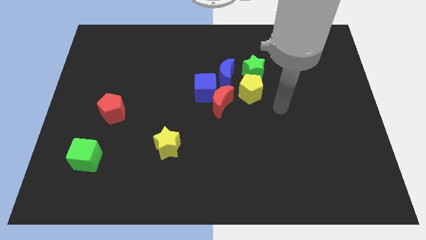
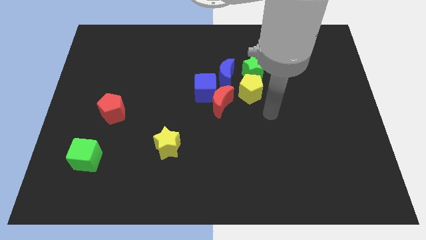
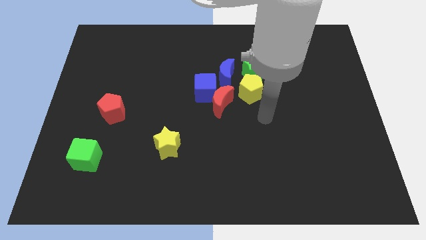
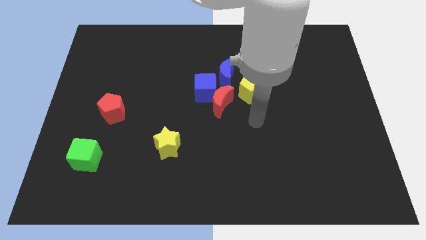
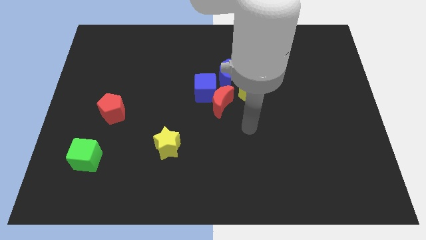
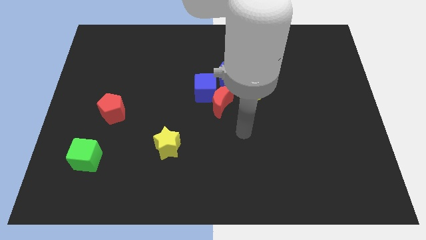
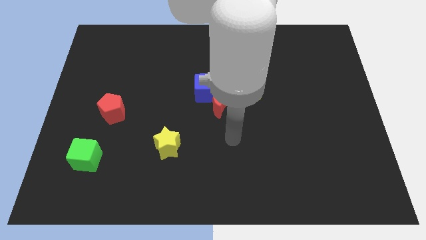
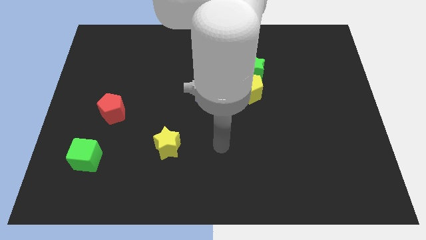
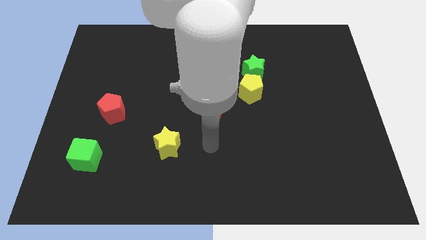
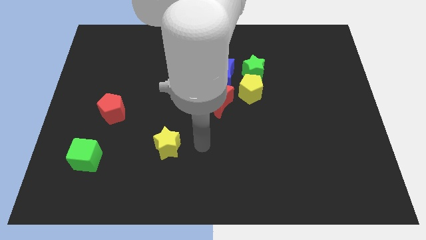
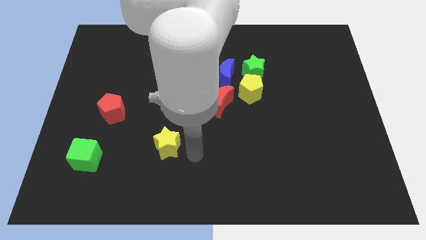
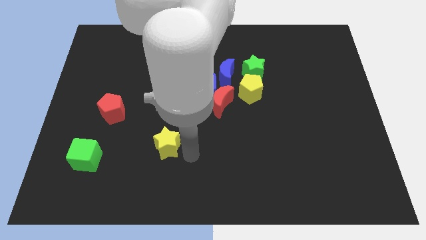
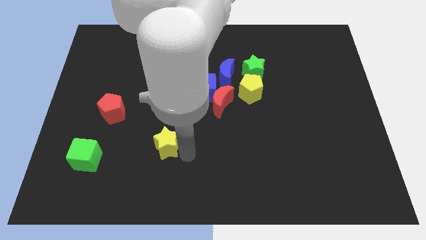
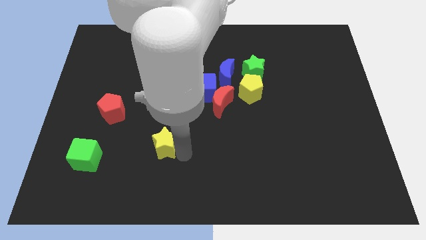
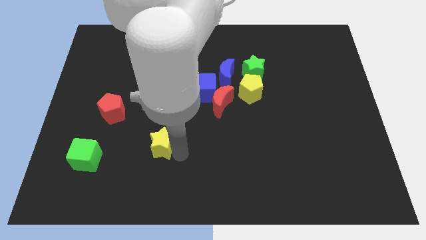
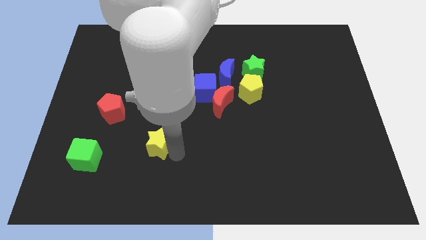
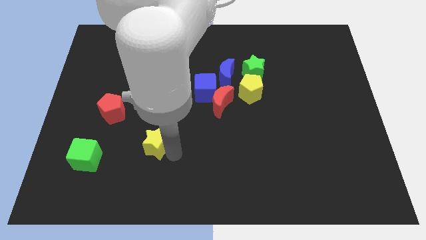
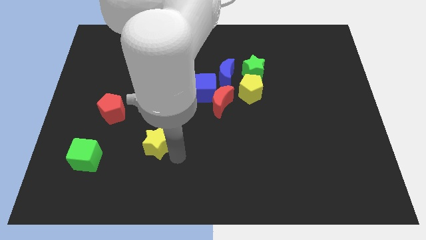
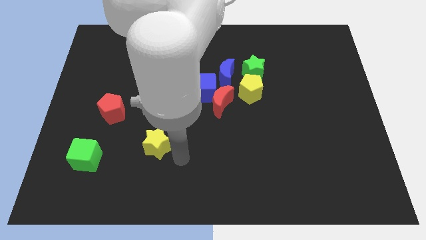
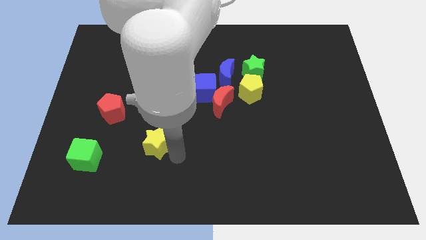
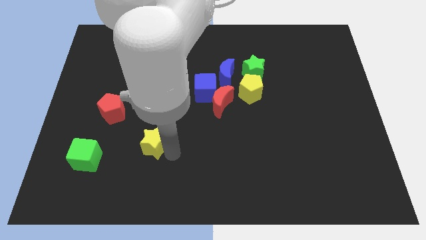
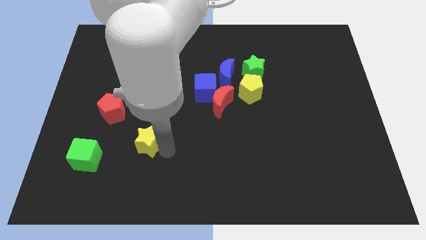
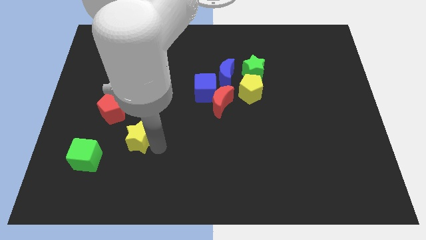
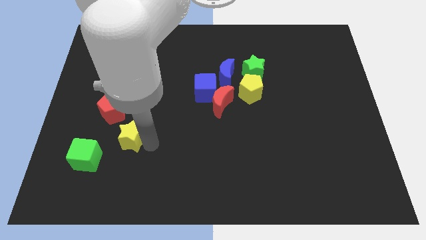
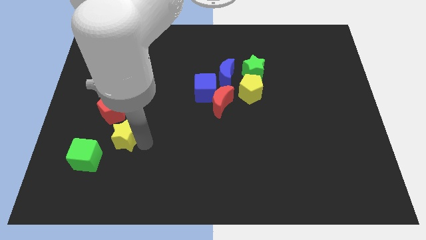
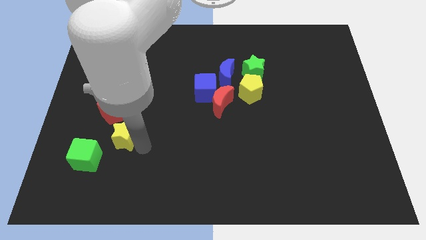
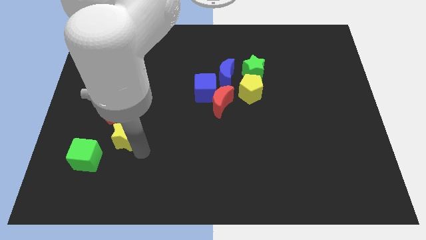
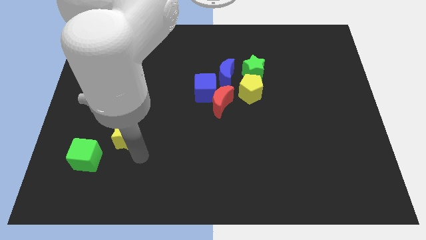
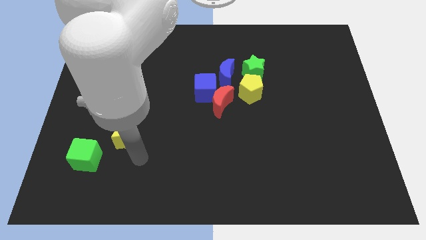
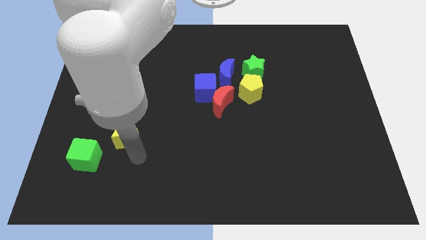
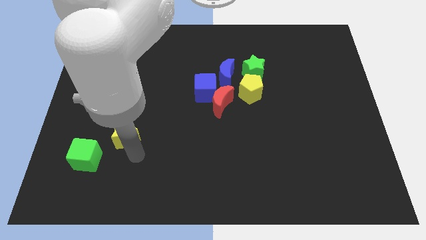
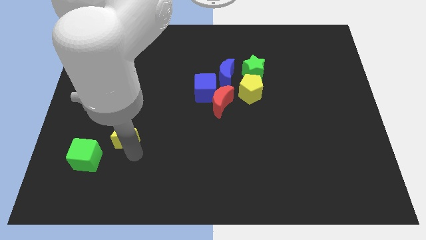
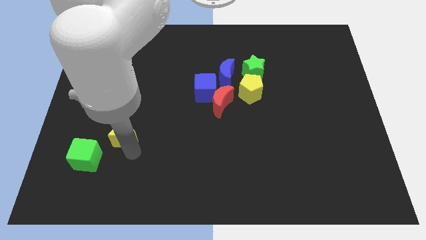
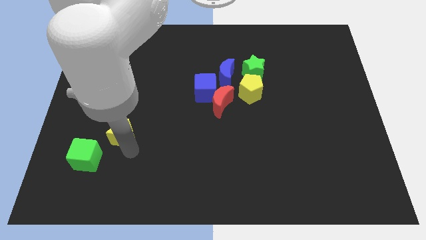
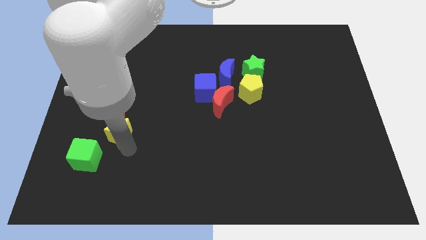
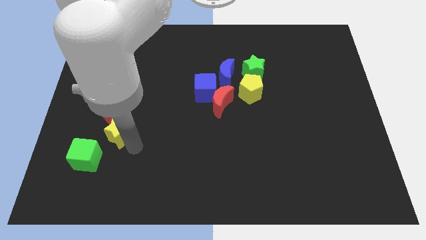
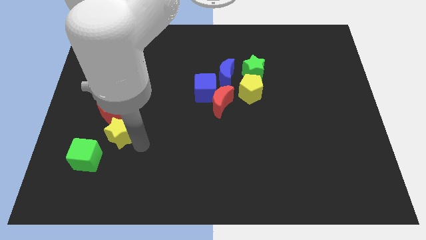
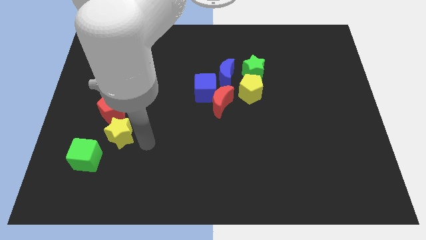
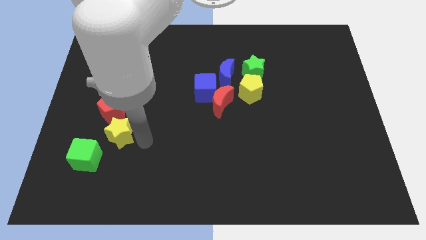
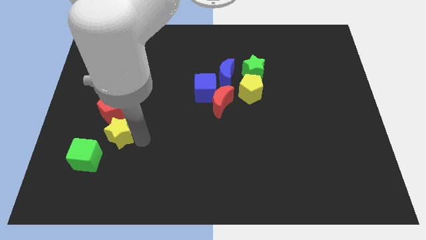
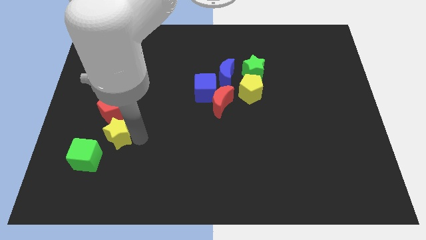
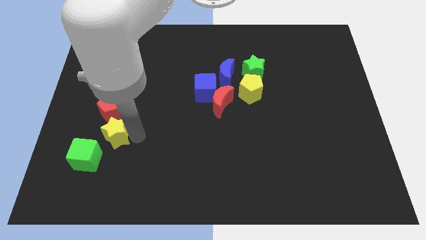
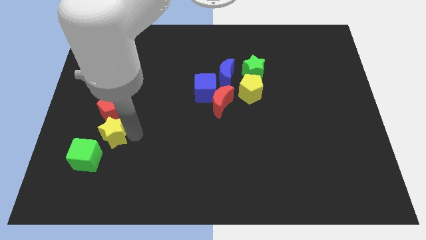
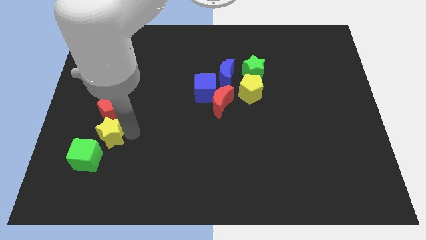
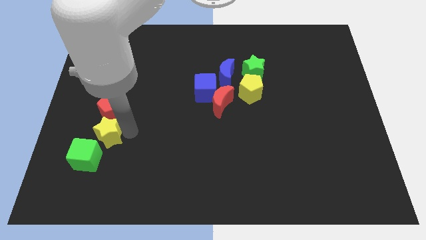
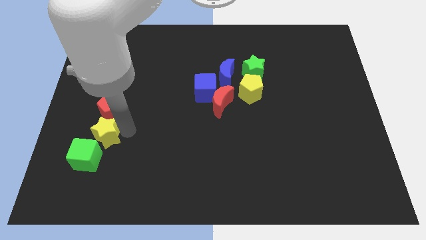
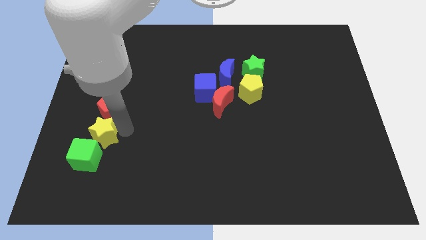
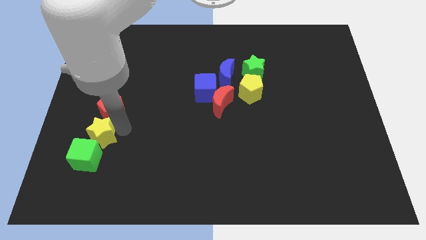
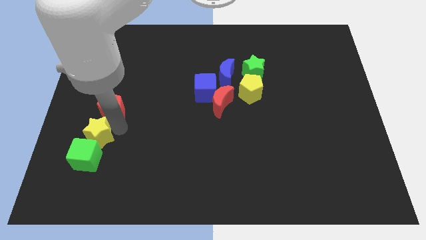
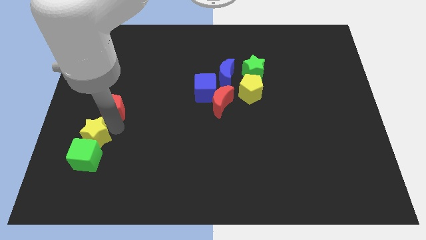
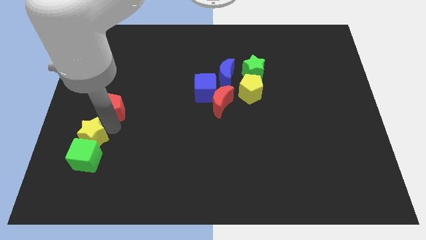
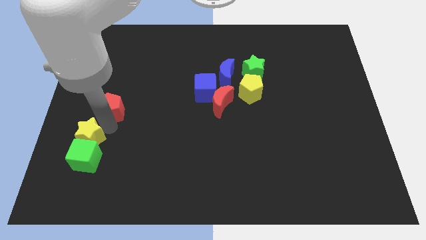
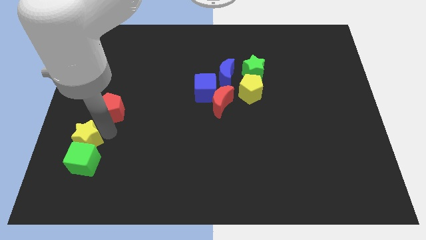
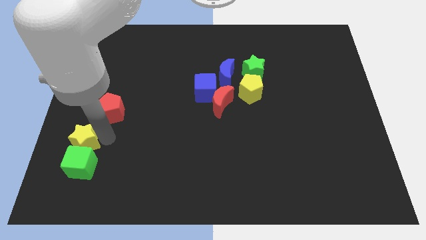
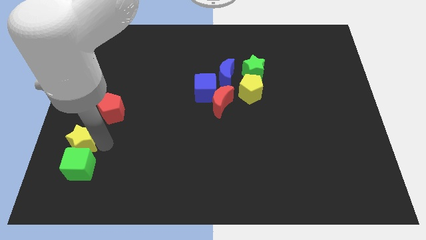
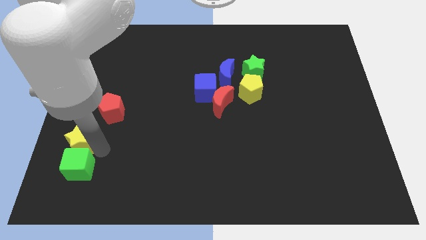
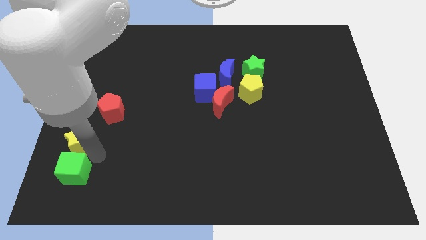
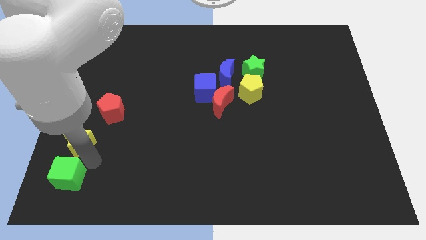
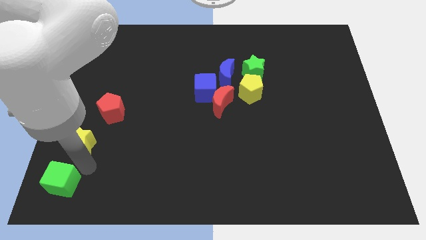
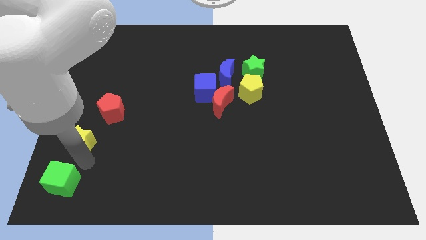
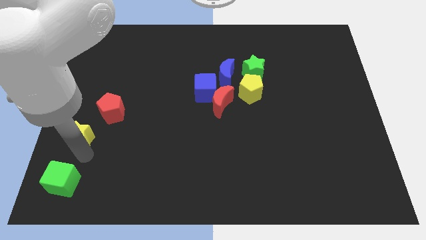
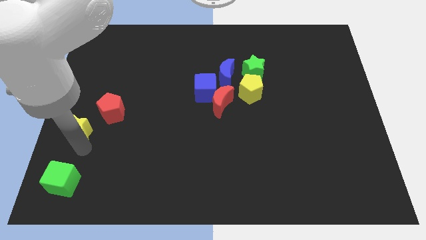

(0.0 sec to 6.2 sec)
push the yellow star to the center left

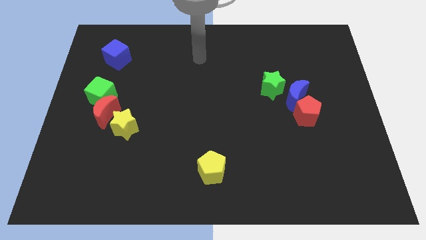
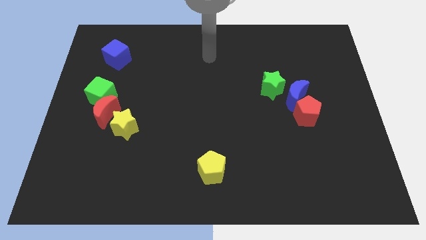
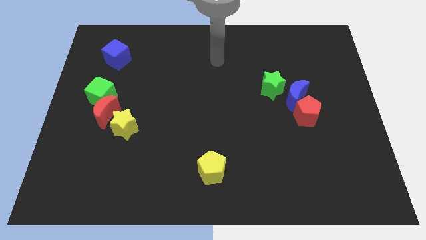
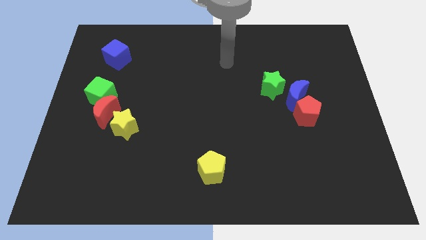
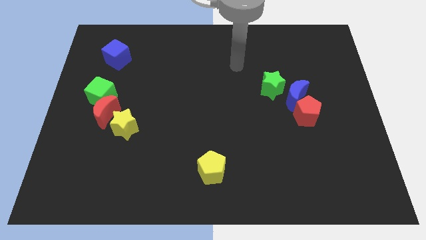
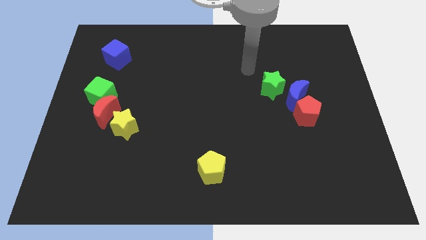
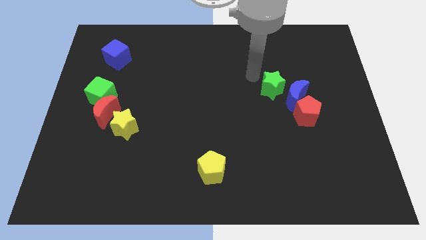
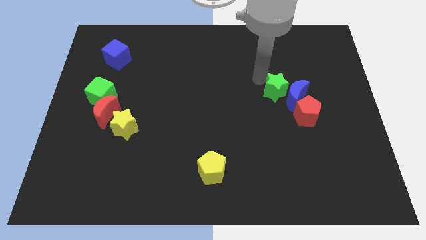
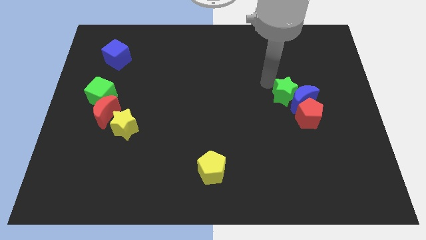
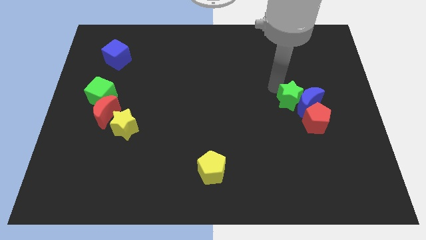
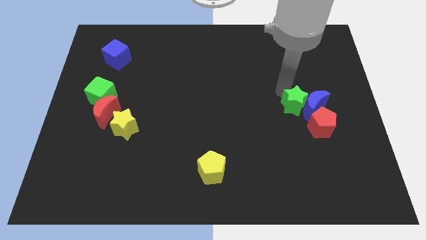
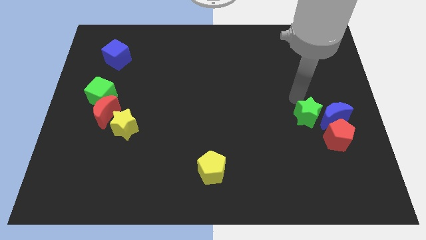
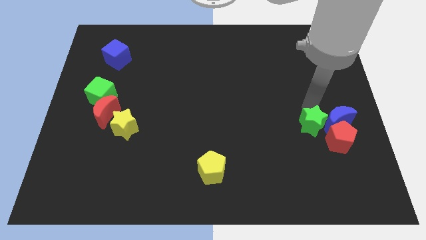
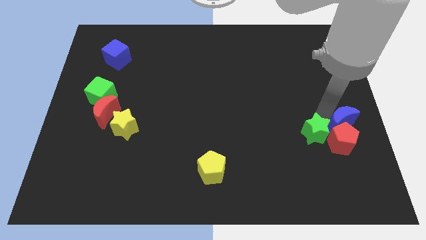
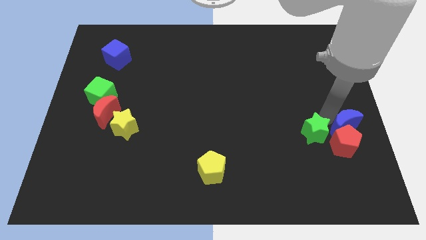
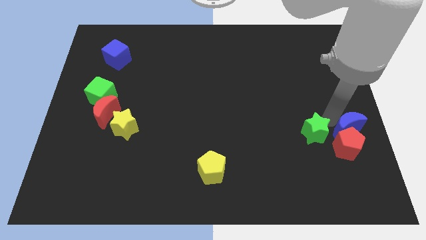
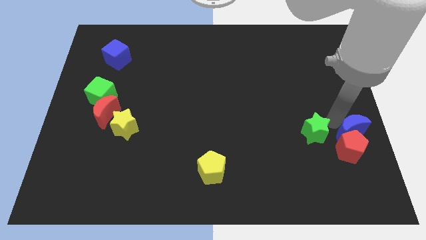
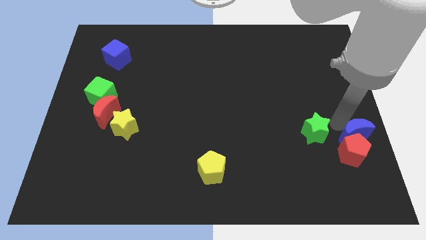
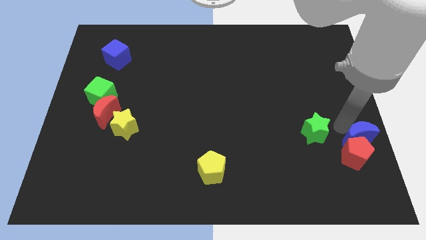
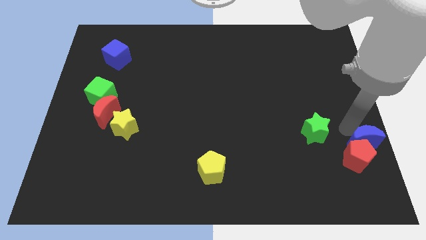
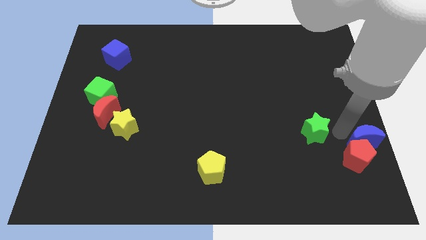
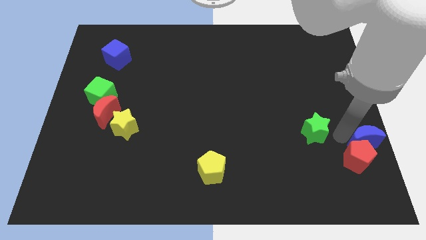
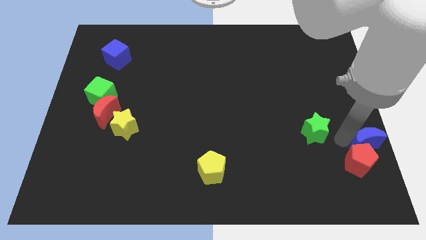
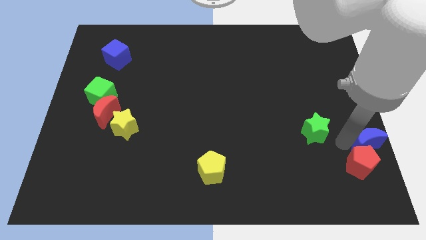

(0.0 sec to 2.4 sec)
push the red pentagon to the lower right corner
